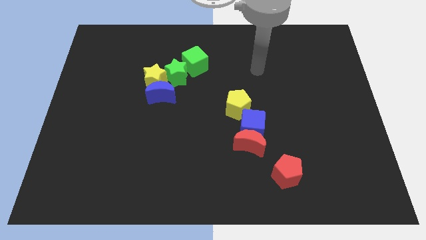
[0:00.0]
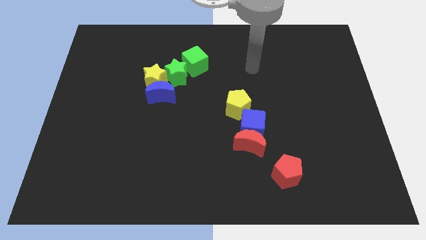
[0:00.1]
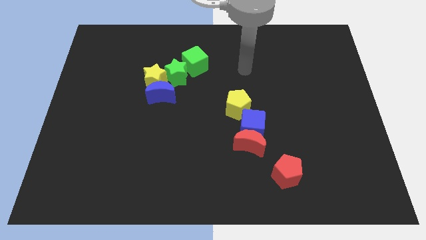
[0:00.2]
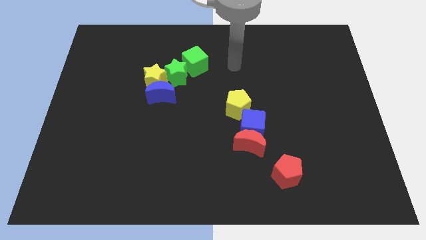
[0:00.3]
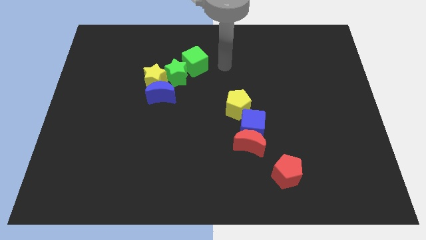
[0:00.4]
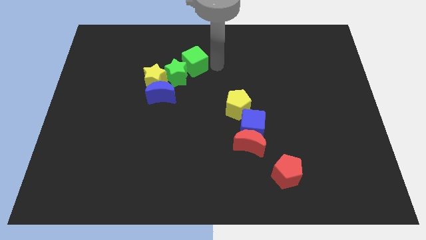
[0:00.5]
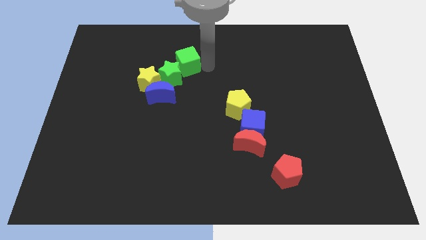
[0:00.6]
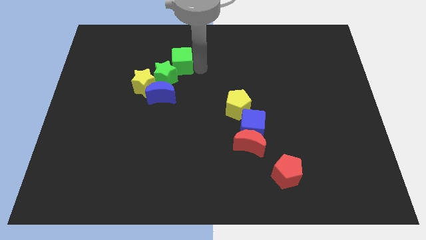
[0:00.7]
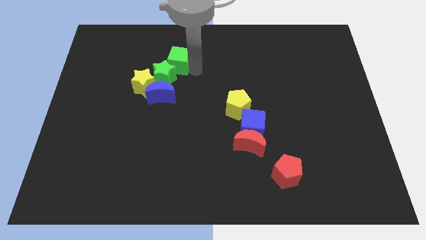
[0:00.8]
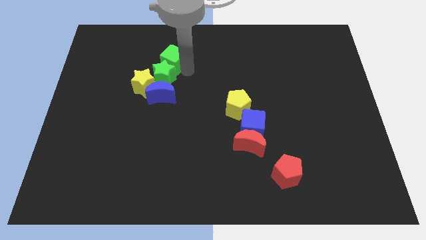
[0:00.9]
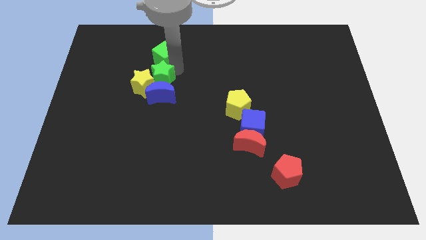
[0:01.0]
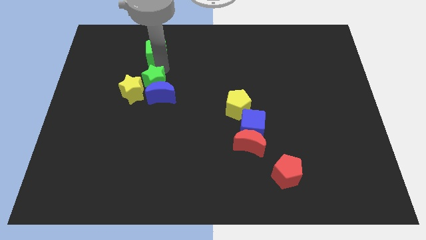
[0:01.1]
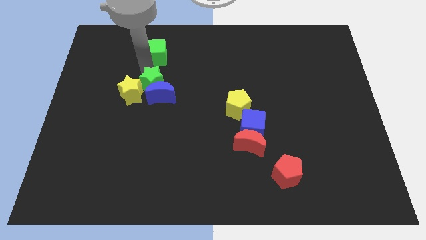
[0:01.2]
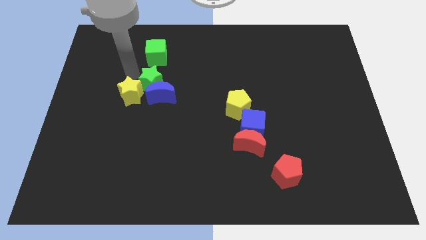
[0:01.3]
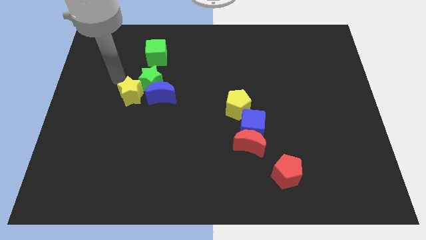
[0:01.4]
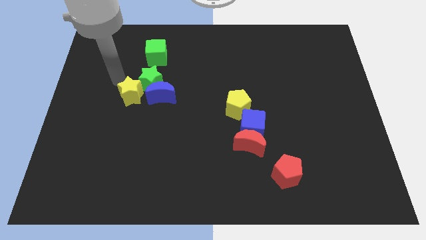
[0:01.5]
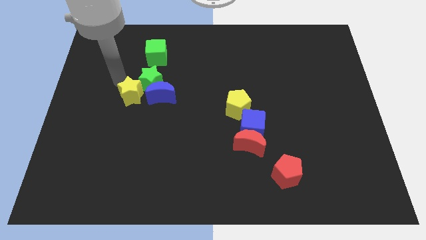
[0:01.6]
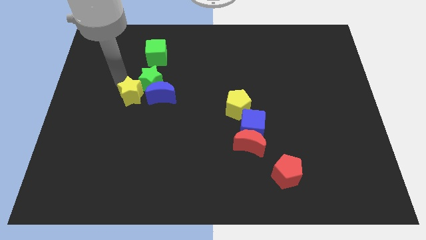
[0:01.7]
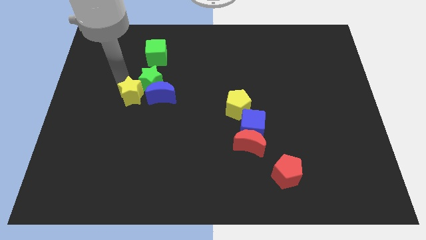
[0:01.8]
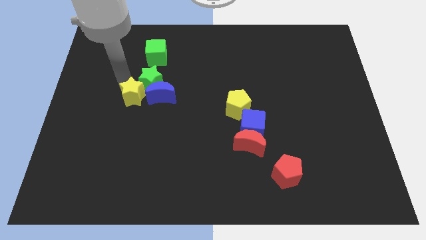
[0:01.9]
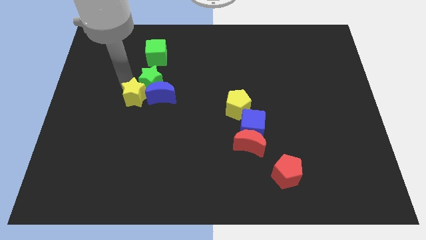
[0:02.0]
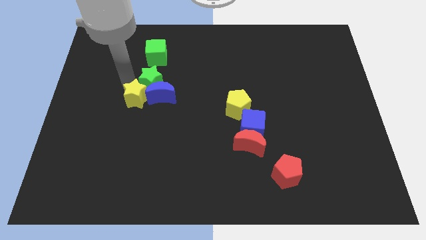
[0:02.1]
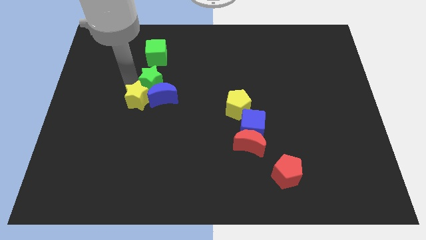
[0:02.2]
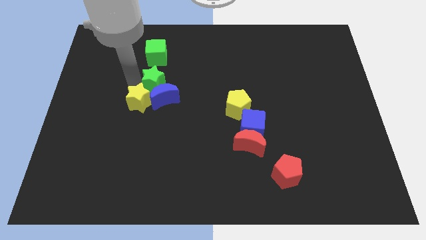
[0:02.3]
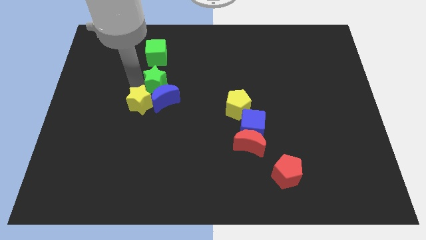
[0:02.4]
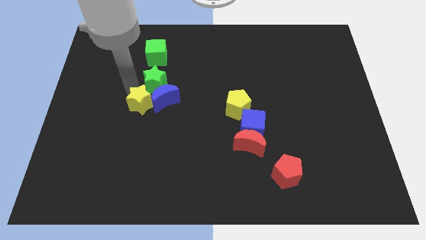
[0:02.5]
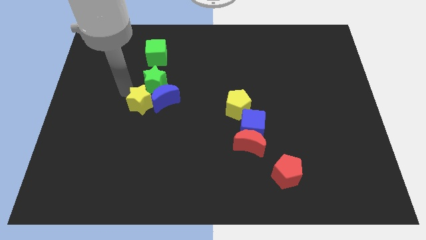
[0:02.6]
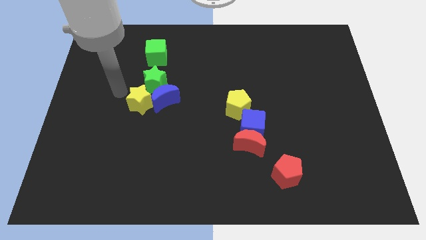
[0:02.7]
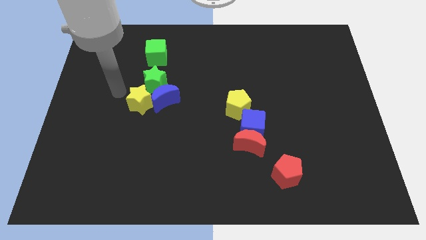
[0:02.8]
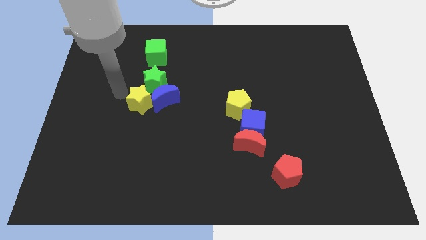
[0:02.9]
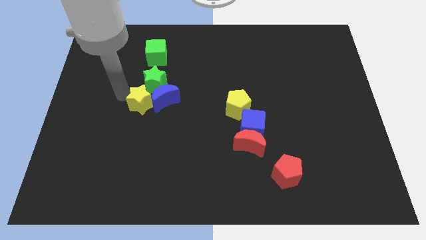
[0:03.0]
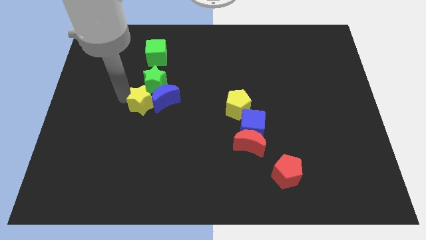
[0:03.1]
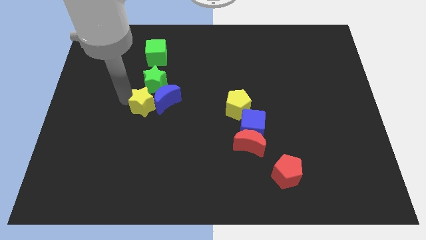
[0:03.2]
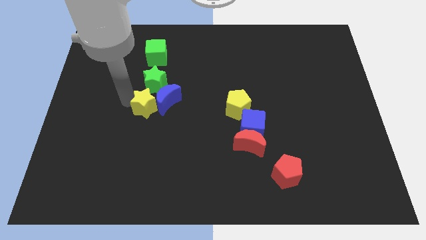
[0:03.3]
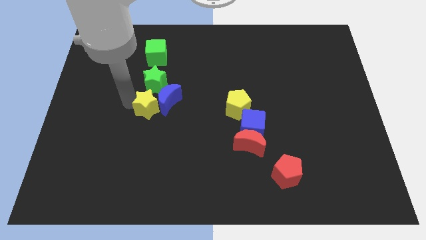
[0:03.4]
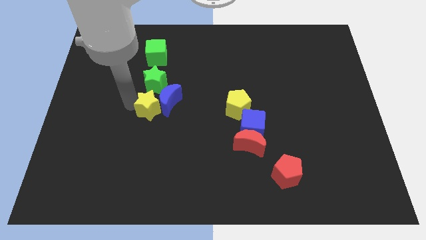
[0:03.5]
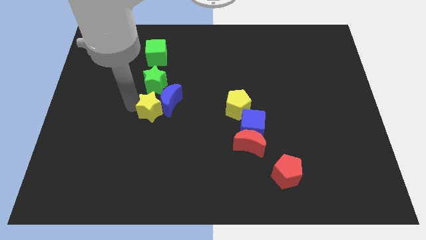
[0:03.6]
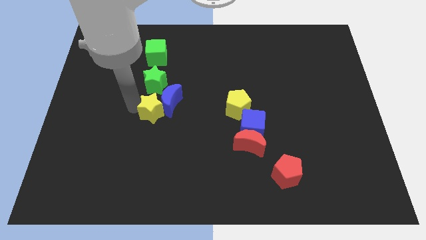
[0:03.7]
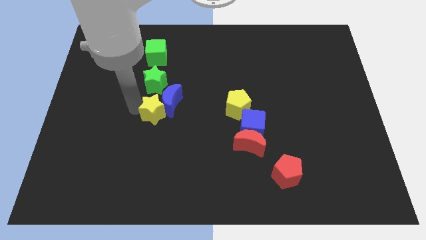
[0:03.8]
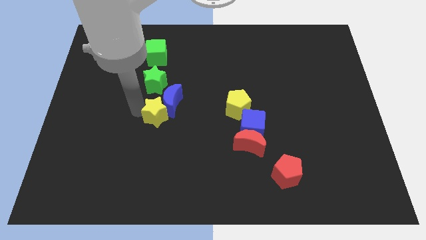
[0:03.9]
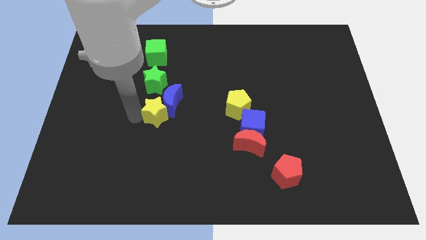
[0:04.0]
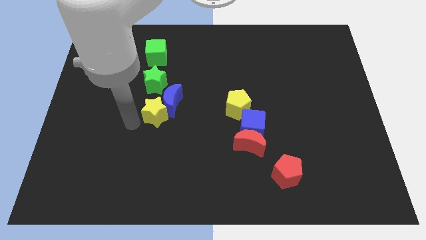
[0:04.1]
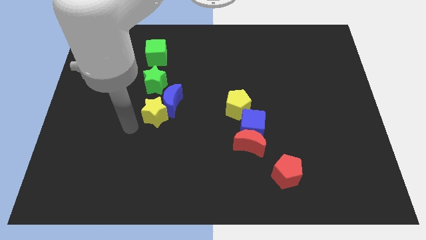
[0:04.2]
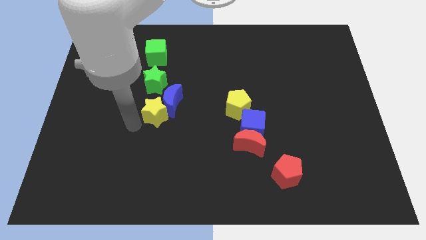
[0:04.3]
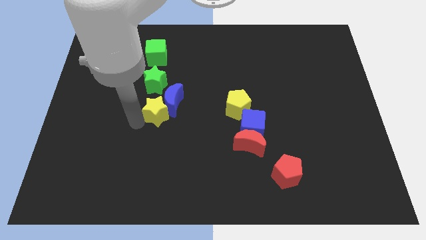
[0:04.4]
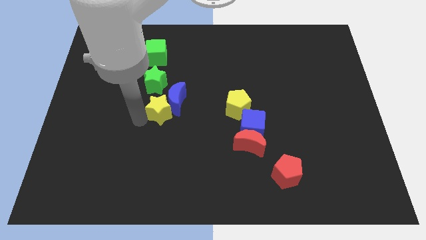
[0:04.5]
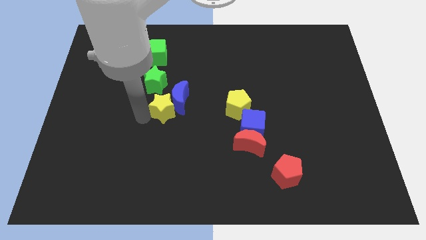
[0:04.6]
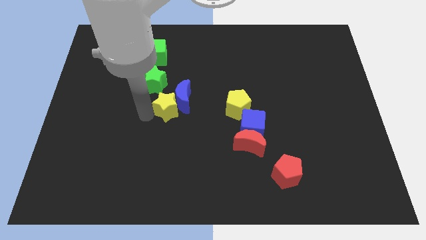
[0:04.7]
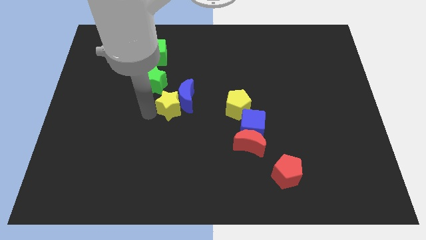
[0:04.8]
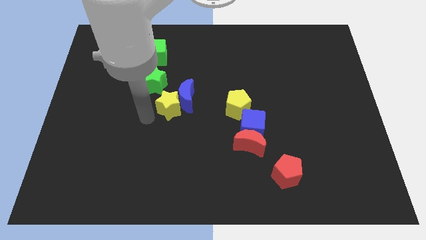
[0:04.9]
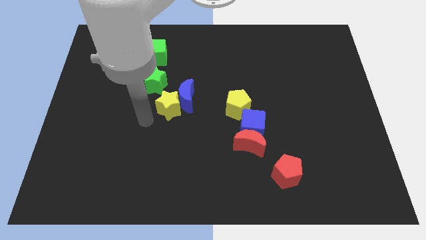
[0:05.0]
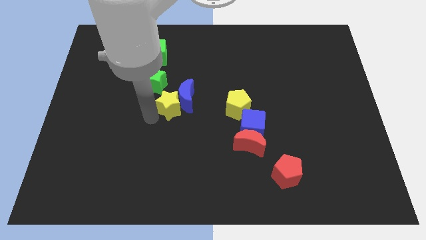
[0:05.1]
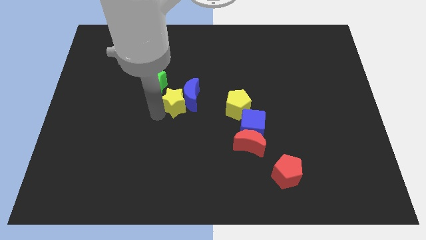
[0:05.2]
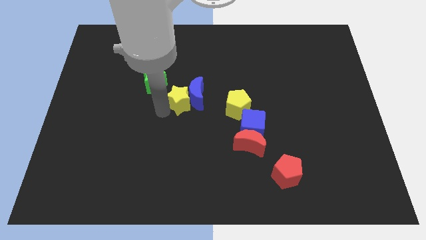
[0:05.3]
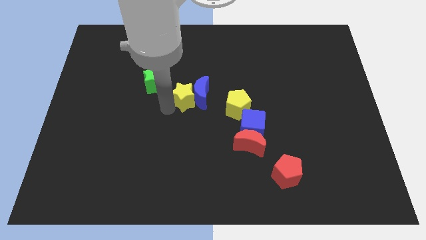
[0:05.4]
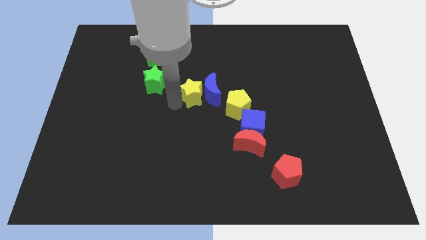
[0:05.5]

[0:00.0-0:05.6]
slide the yellow star a bit to the right

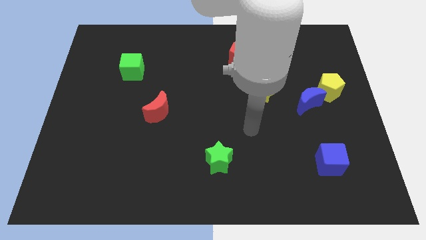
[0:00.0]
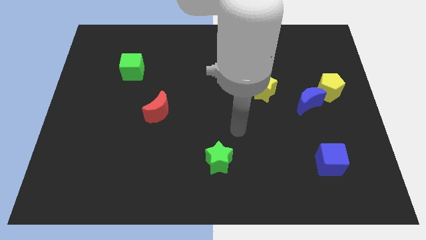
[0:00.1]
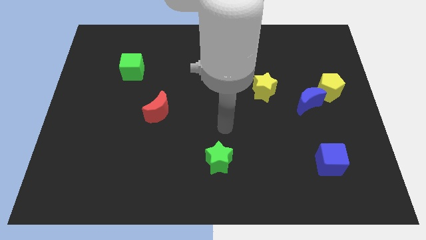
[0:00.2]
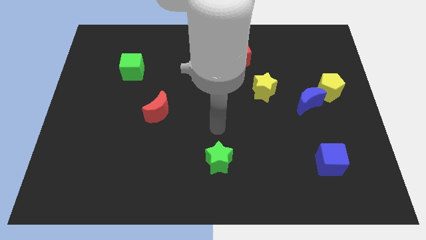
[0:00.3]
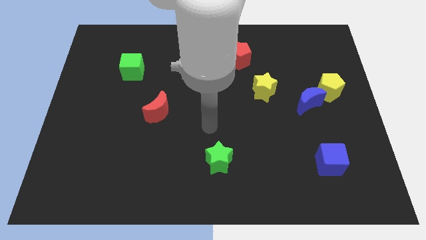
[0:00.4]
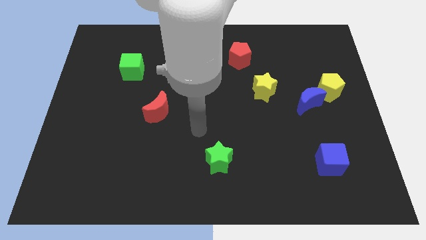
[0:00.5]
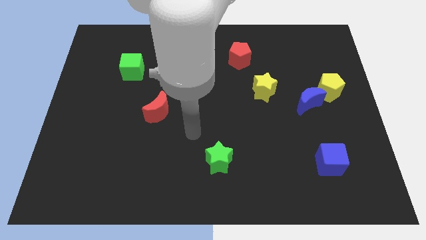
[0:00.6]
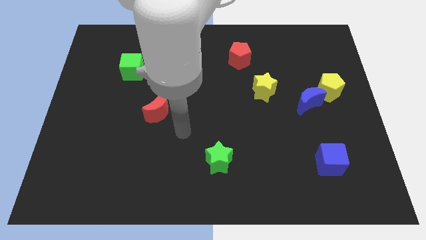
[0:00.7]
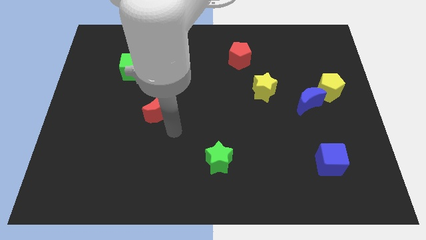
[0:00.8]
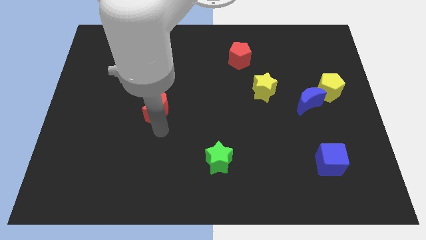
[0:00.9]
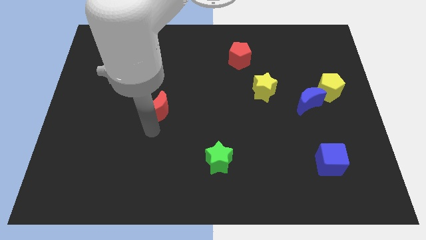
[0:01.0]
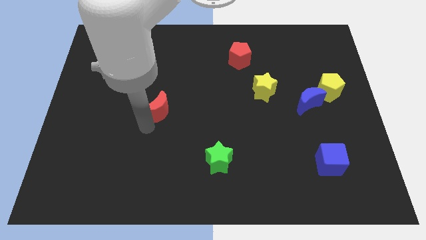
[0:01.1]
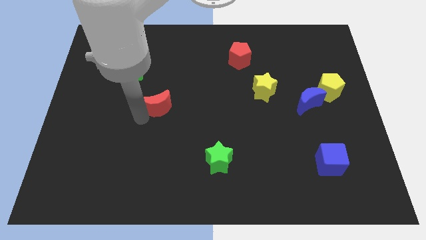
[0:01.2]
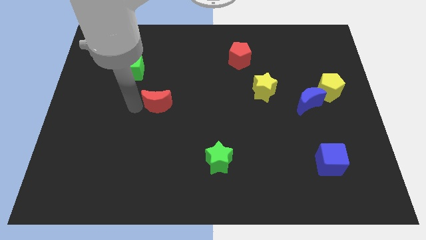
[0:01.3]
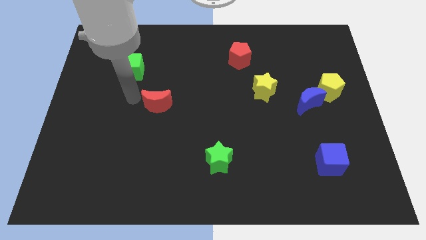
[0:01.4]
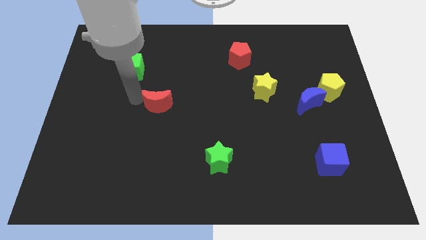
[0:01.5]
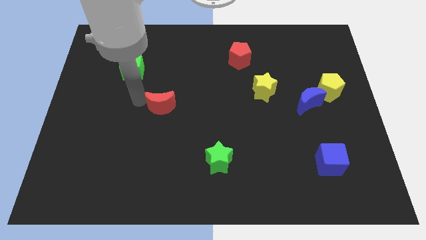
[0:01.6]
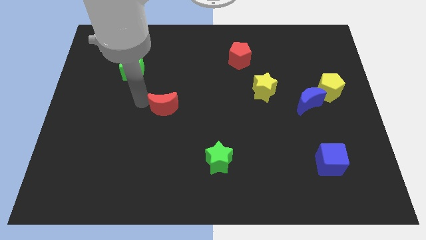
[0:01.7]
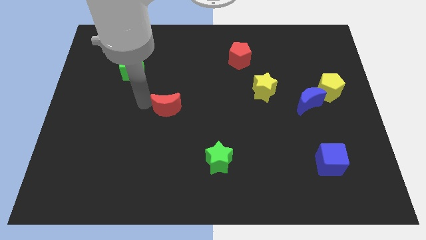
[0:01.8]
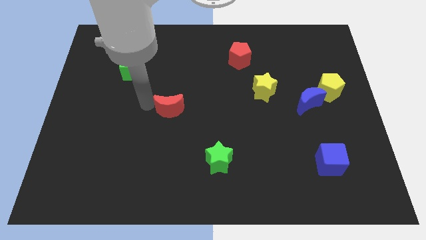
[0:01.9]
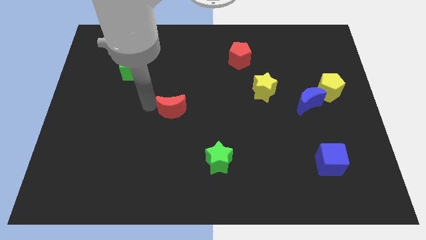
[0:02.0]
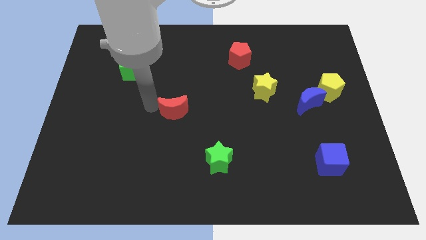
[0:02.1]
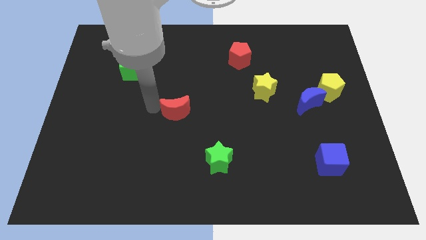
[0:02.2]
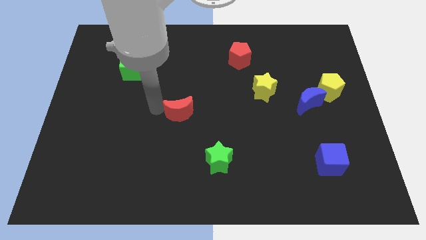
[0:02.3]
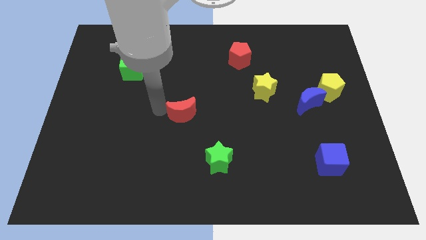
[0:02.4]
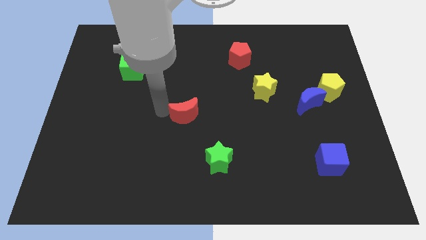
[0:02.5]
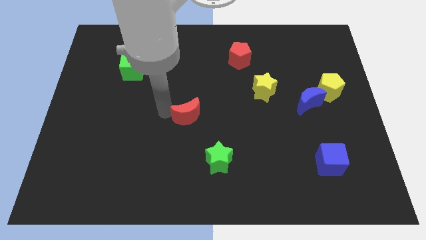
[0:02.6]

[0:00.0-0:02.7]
move the red moon somewhat to the right
